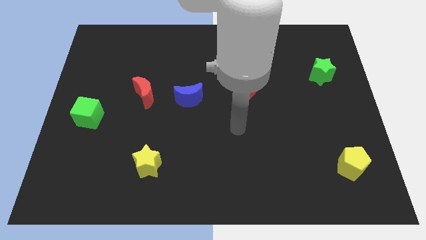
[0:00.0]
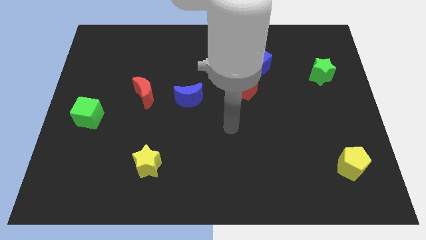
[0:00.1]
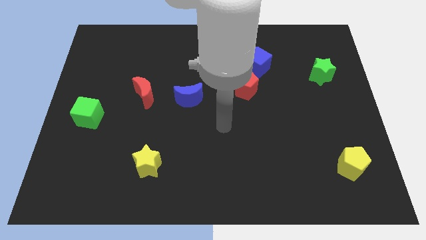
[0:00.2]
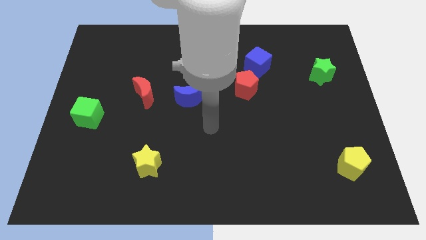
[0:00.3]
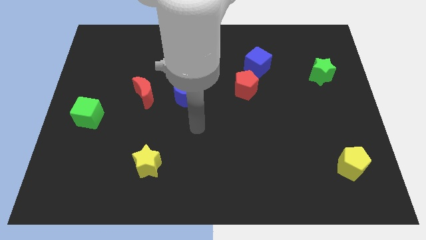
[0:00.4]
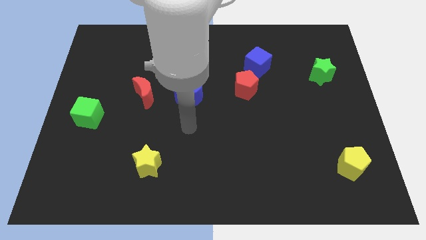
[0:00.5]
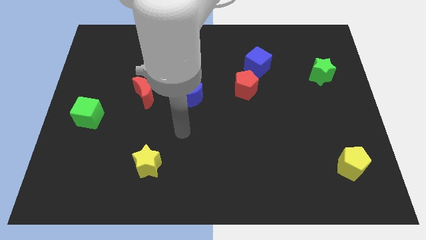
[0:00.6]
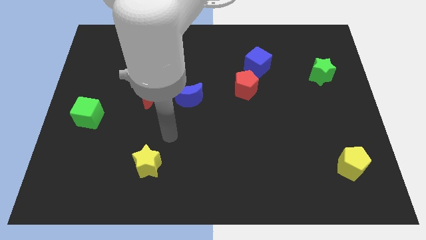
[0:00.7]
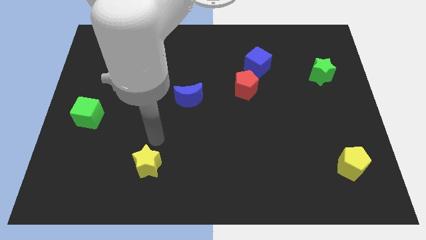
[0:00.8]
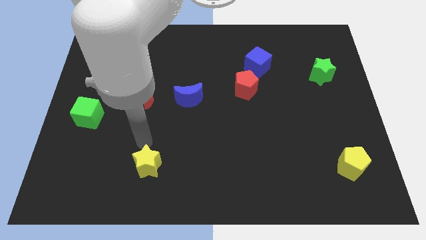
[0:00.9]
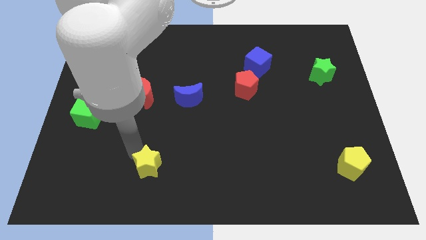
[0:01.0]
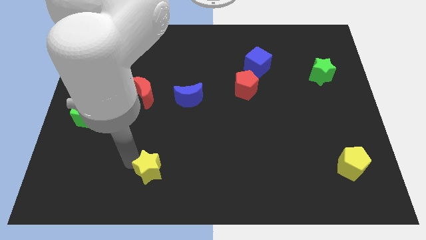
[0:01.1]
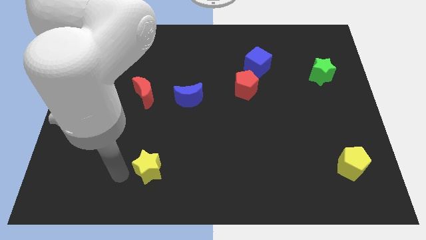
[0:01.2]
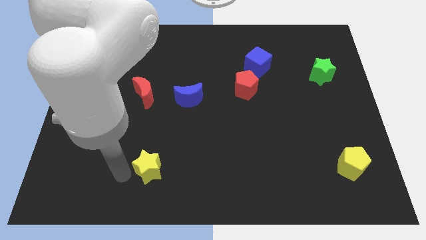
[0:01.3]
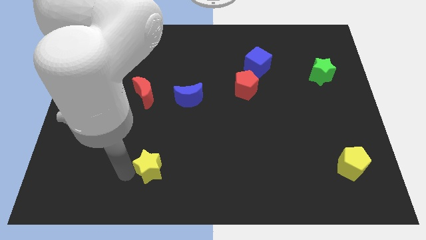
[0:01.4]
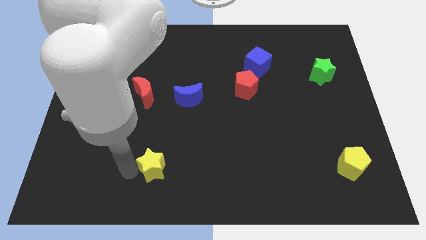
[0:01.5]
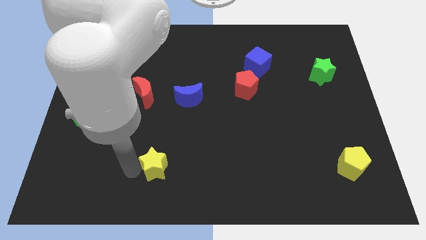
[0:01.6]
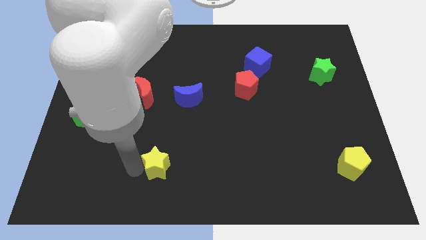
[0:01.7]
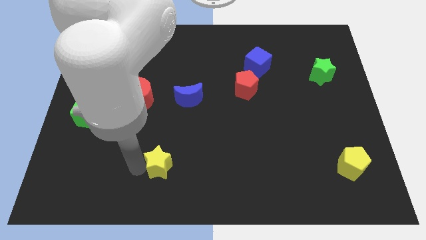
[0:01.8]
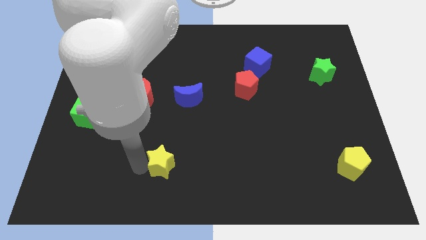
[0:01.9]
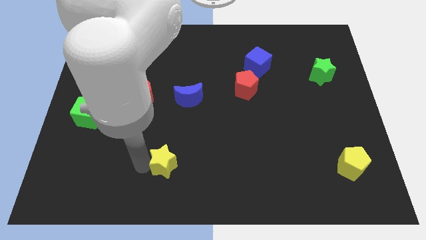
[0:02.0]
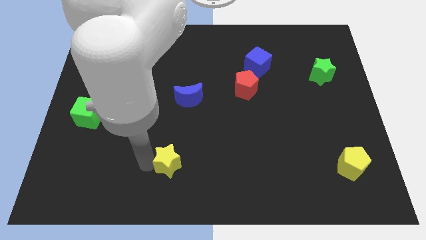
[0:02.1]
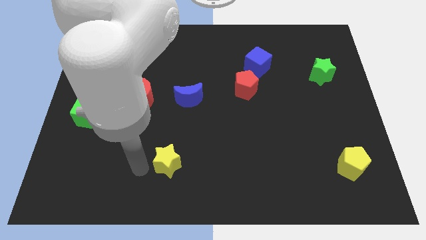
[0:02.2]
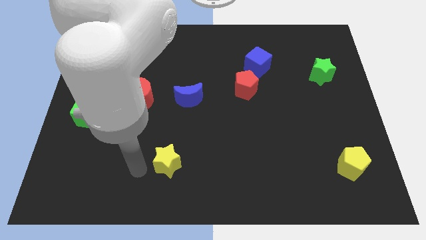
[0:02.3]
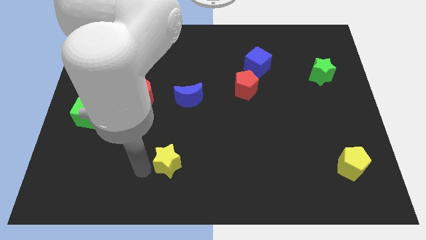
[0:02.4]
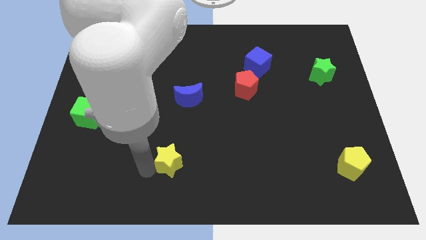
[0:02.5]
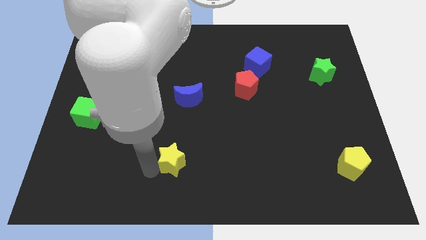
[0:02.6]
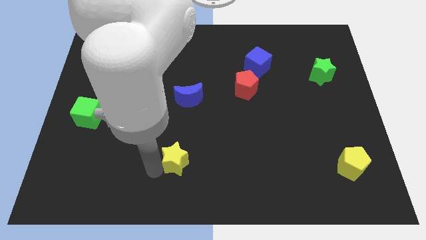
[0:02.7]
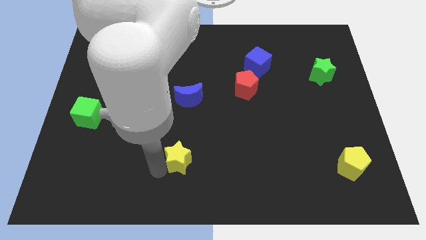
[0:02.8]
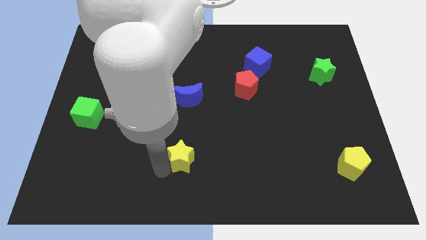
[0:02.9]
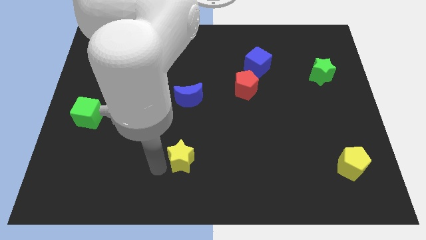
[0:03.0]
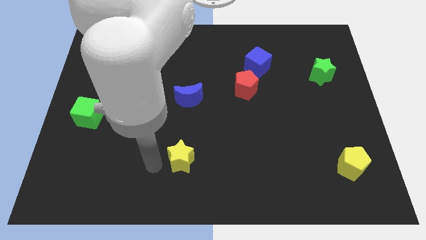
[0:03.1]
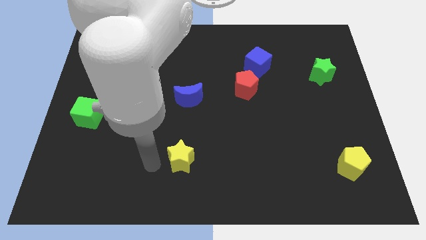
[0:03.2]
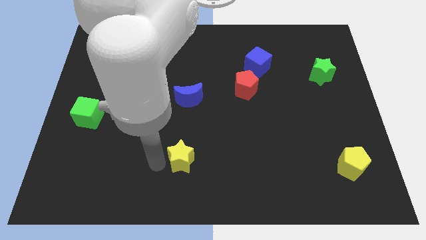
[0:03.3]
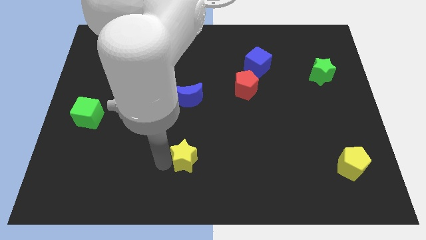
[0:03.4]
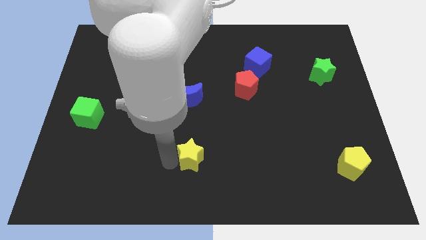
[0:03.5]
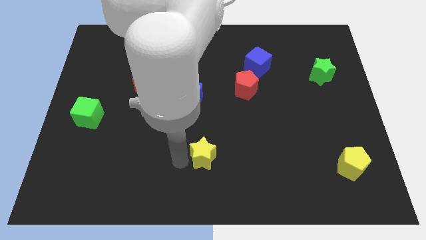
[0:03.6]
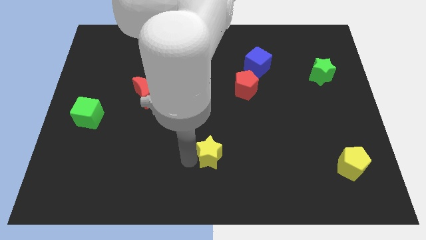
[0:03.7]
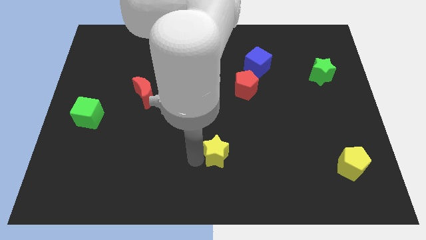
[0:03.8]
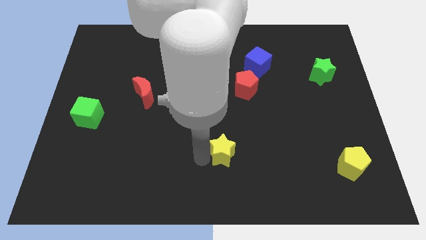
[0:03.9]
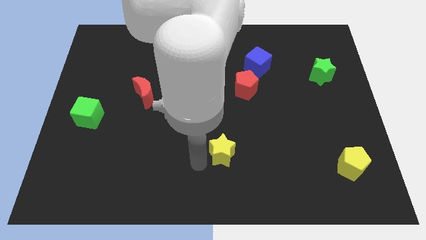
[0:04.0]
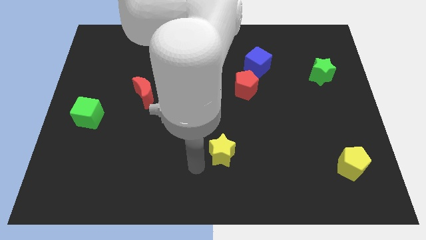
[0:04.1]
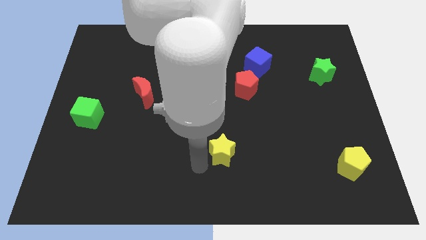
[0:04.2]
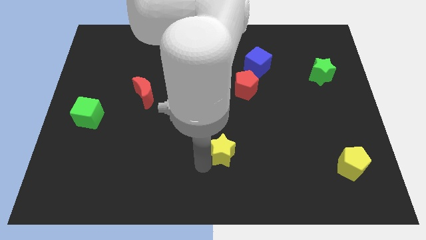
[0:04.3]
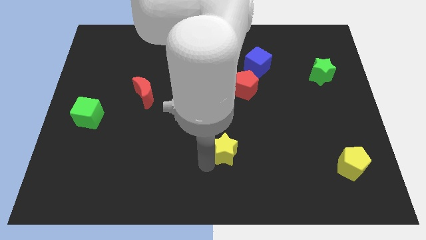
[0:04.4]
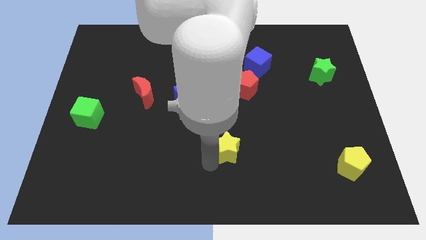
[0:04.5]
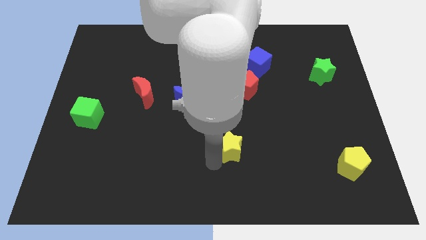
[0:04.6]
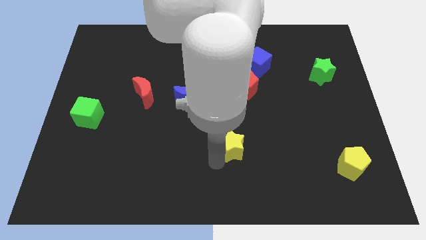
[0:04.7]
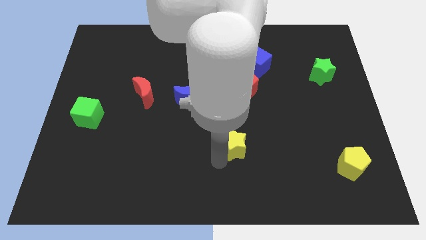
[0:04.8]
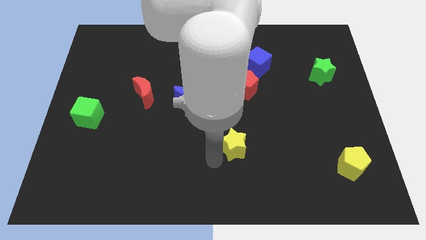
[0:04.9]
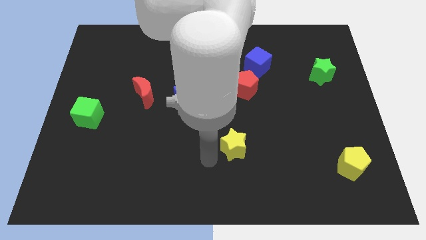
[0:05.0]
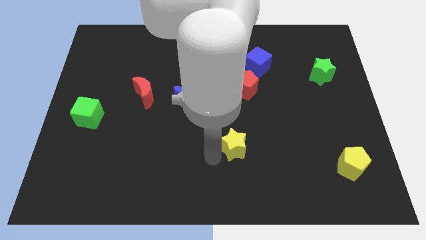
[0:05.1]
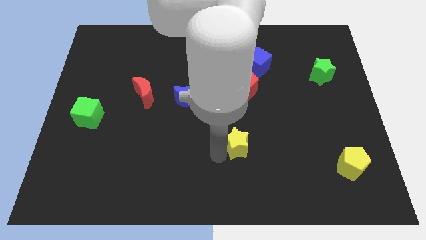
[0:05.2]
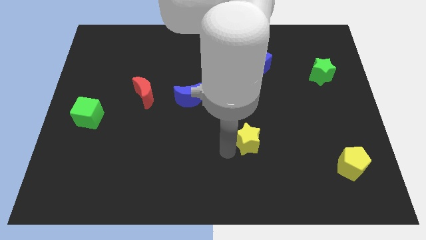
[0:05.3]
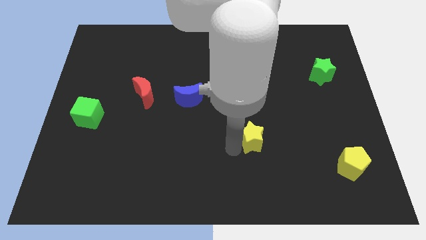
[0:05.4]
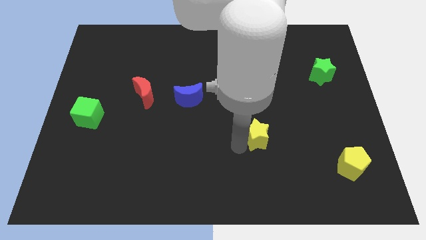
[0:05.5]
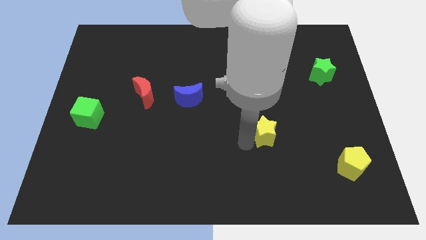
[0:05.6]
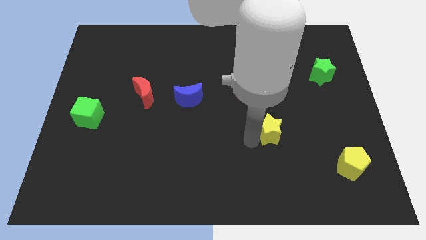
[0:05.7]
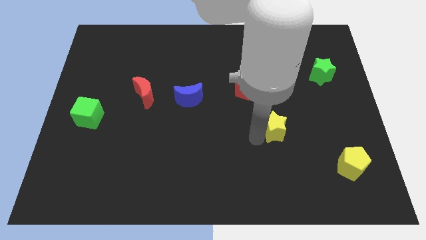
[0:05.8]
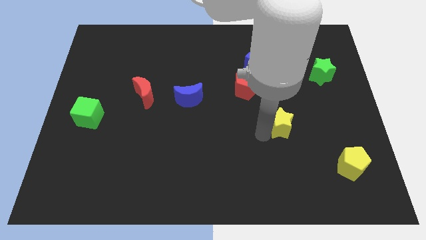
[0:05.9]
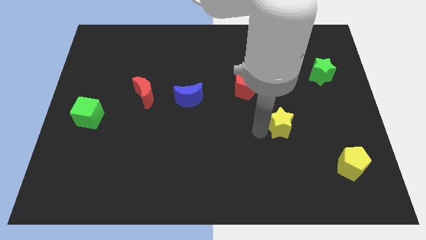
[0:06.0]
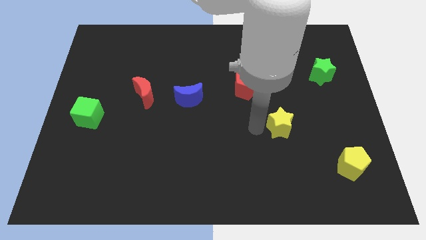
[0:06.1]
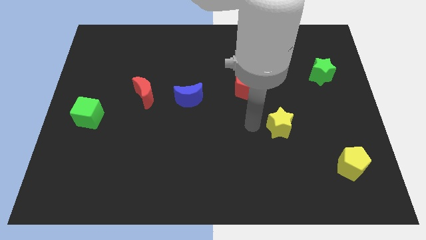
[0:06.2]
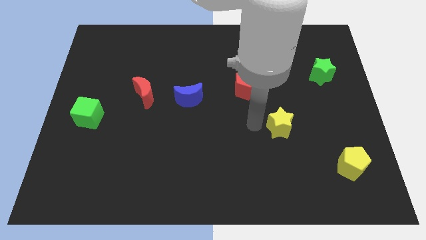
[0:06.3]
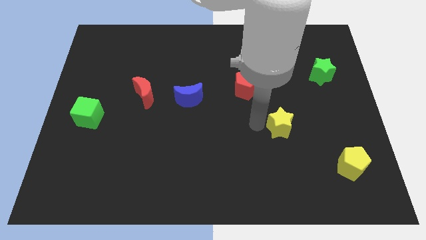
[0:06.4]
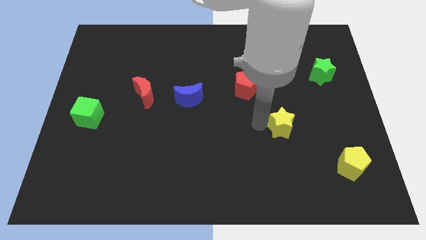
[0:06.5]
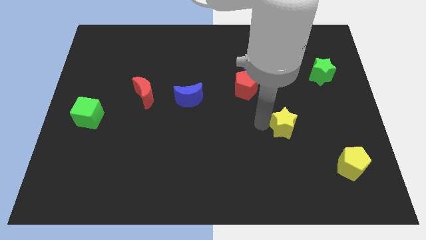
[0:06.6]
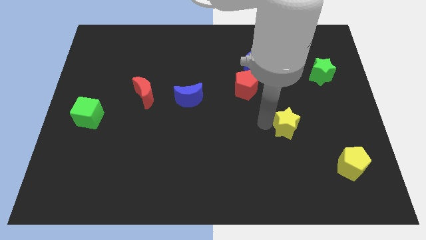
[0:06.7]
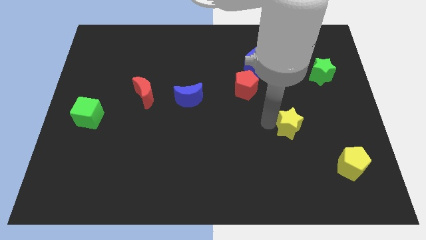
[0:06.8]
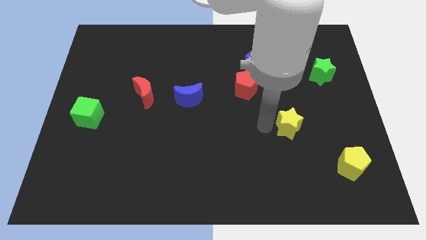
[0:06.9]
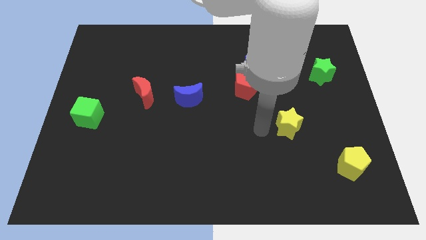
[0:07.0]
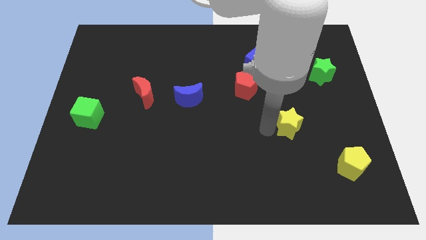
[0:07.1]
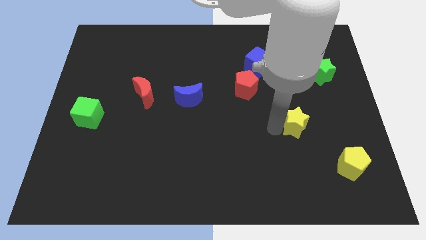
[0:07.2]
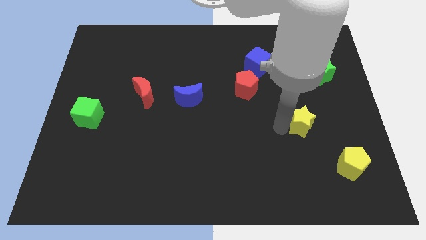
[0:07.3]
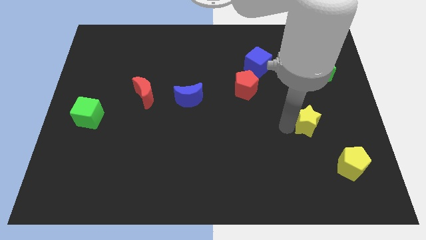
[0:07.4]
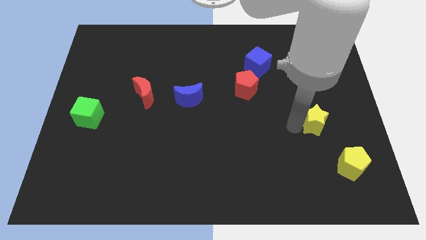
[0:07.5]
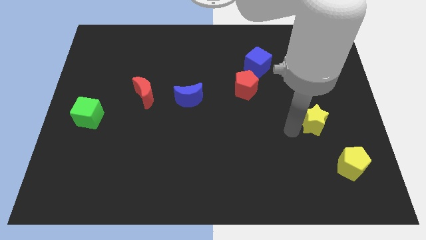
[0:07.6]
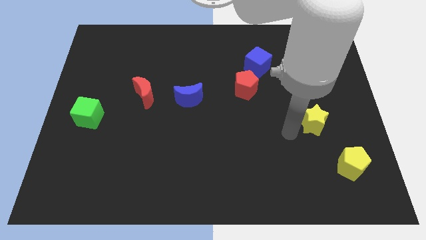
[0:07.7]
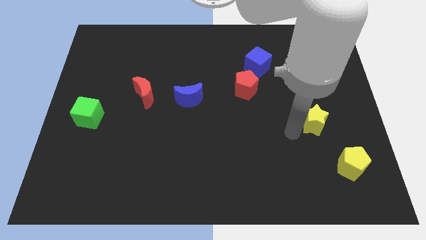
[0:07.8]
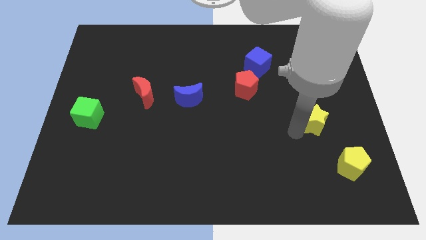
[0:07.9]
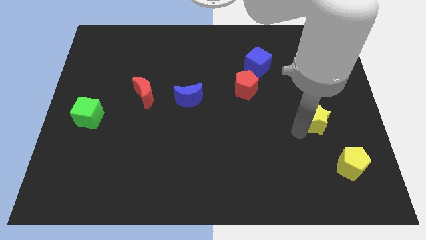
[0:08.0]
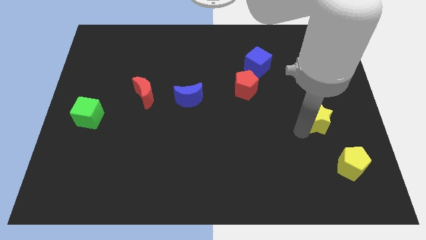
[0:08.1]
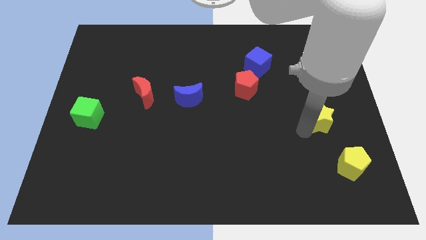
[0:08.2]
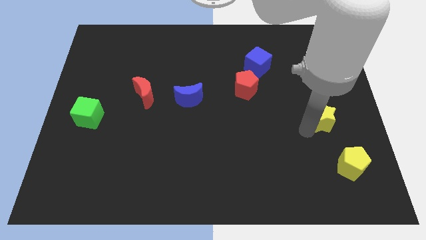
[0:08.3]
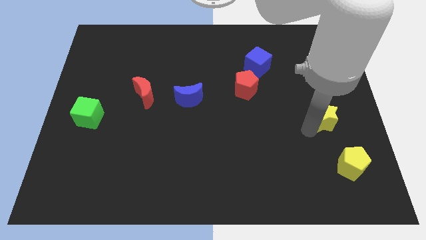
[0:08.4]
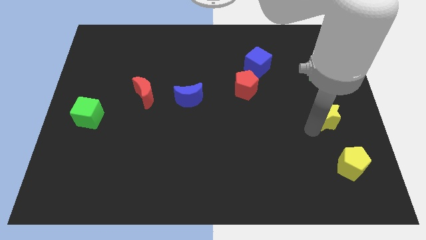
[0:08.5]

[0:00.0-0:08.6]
slide the yellow star to the right side
